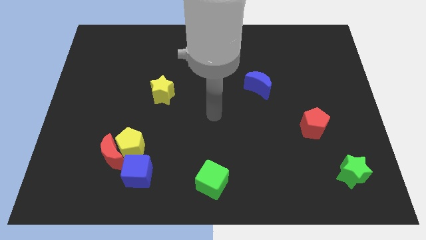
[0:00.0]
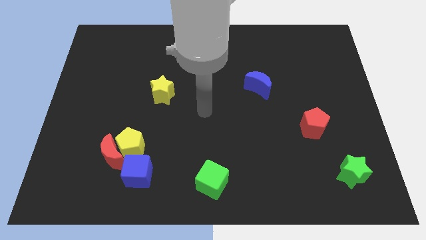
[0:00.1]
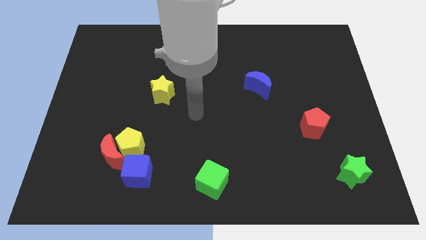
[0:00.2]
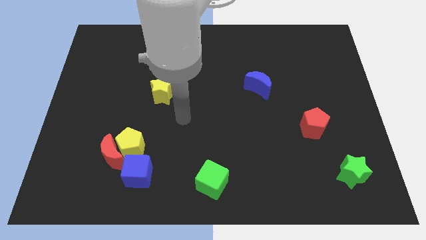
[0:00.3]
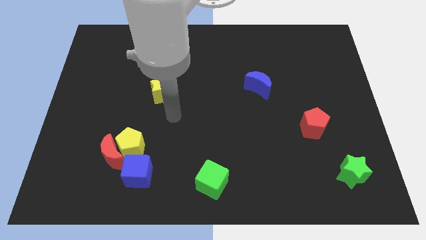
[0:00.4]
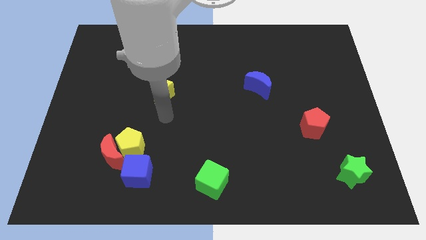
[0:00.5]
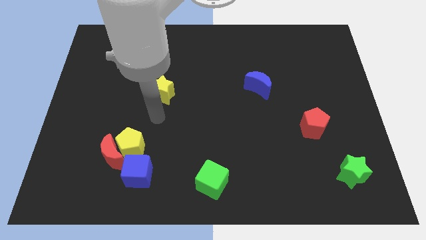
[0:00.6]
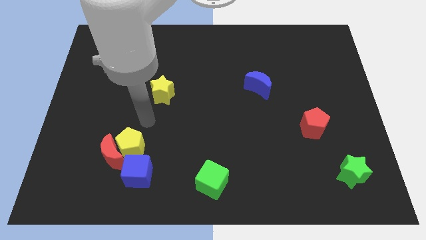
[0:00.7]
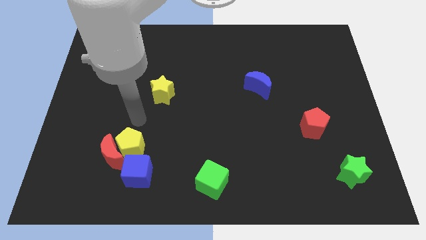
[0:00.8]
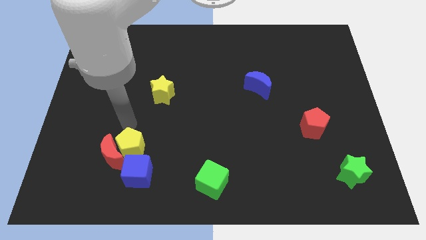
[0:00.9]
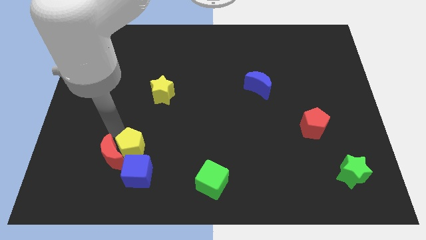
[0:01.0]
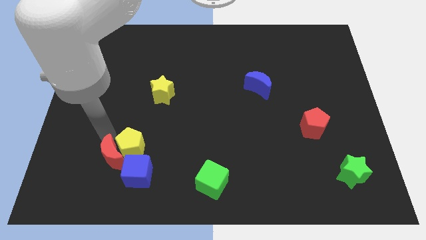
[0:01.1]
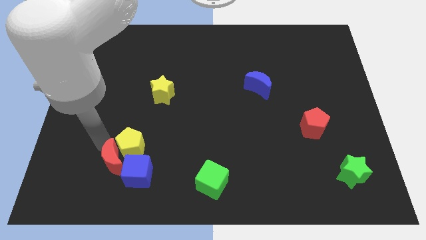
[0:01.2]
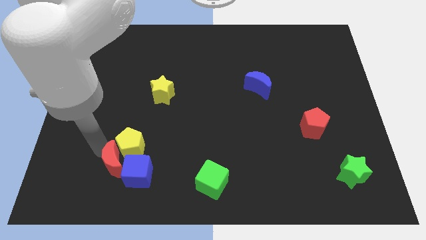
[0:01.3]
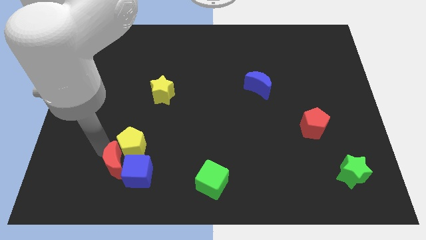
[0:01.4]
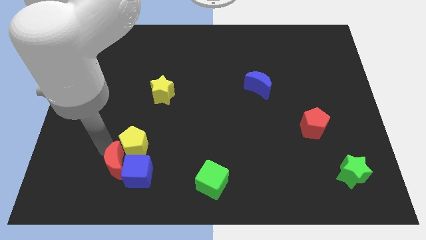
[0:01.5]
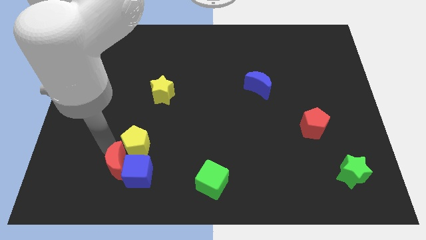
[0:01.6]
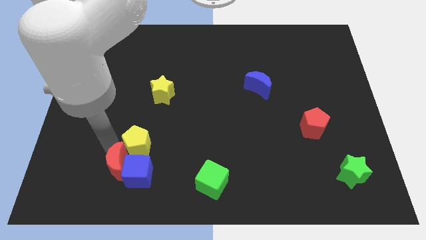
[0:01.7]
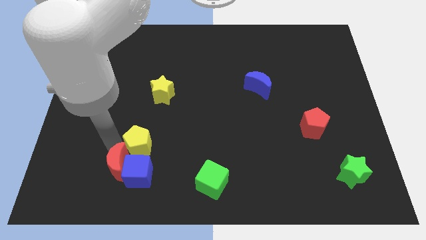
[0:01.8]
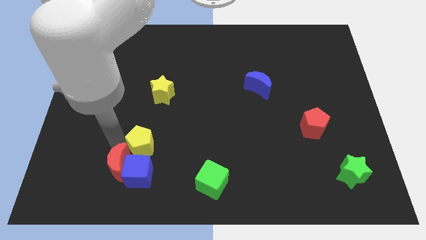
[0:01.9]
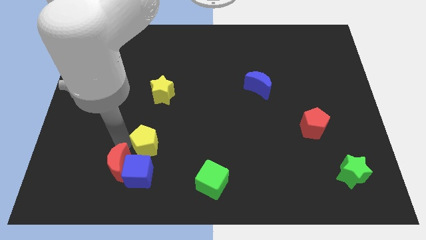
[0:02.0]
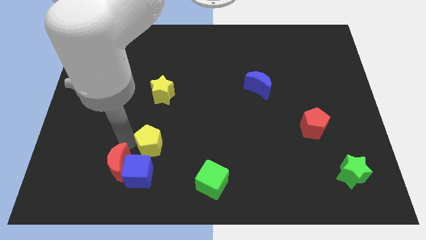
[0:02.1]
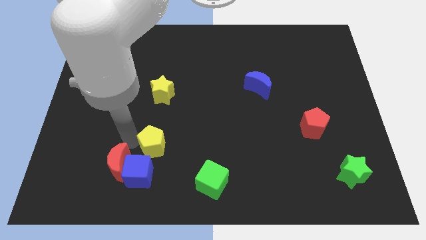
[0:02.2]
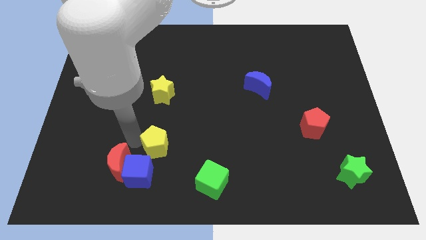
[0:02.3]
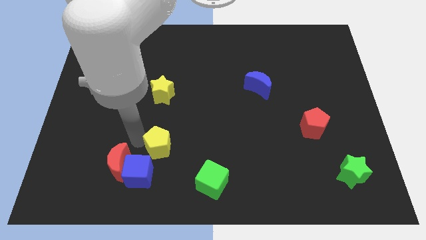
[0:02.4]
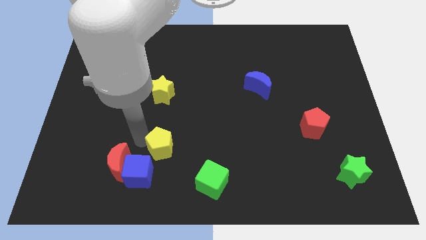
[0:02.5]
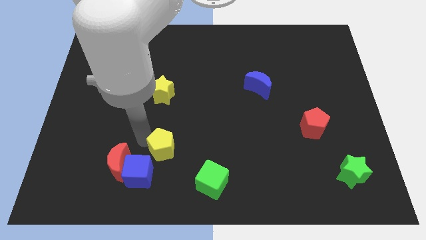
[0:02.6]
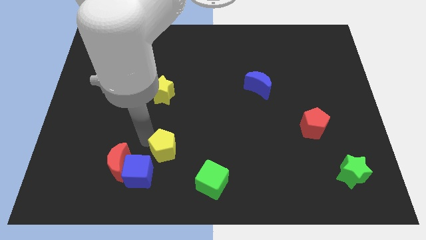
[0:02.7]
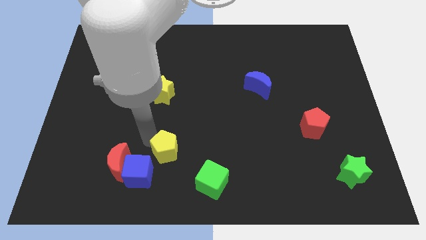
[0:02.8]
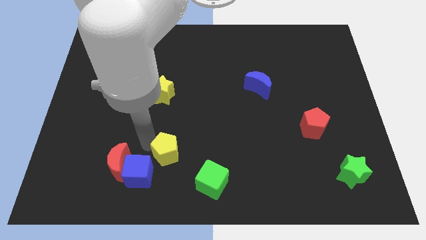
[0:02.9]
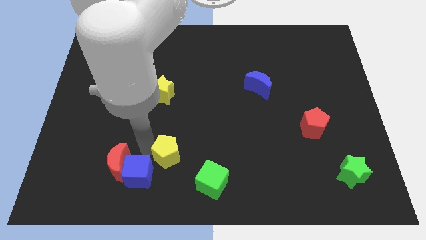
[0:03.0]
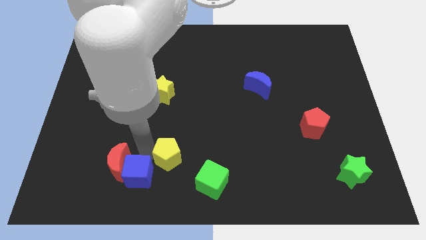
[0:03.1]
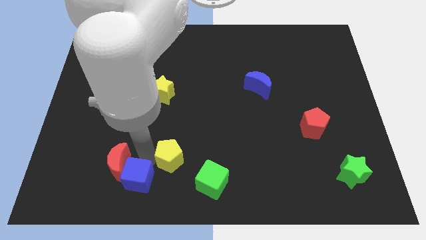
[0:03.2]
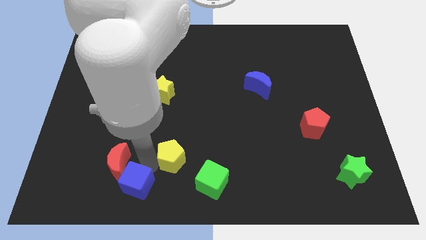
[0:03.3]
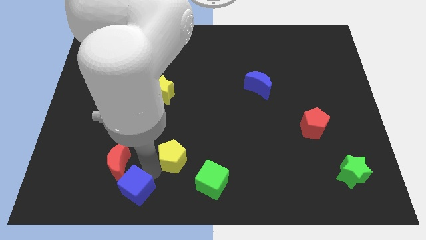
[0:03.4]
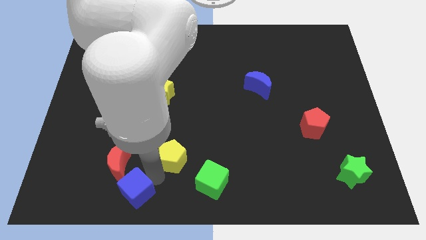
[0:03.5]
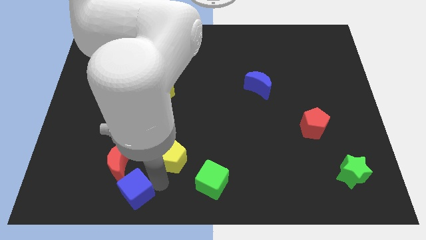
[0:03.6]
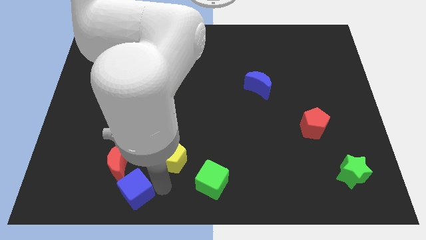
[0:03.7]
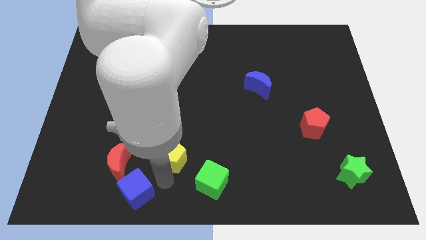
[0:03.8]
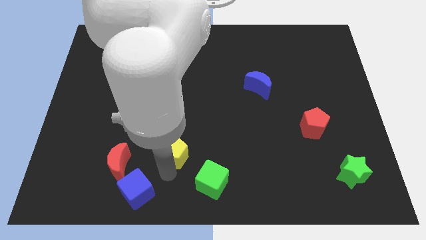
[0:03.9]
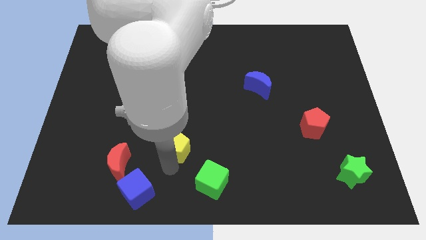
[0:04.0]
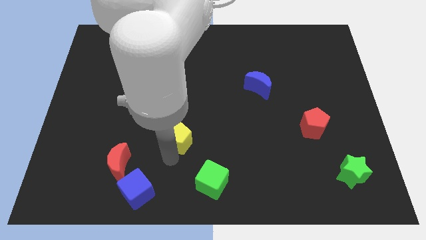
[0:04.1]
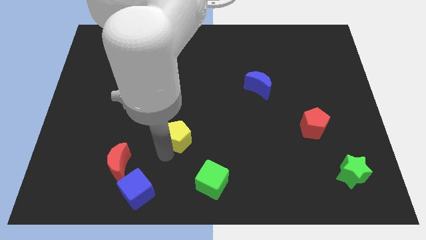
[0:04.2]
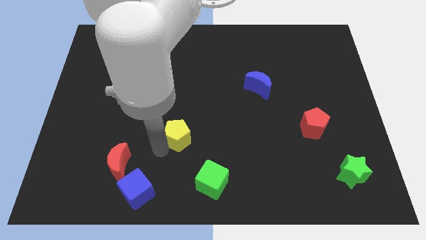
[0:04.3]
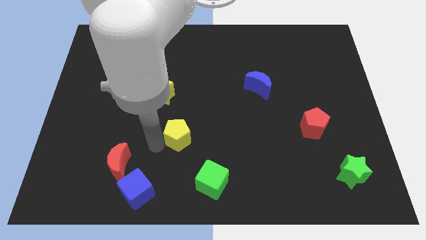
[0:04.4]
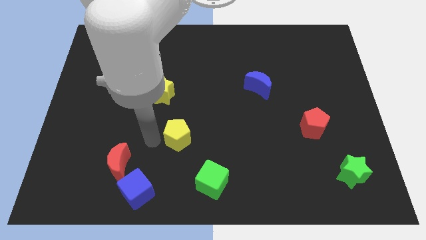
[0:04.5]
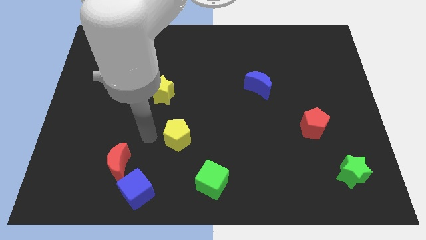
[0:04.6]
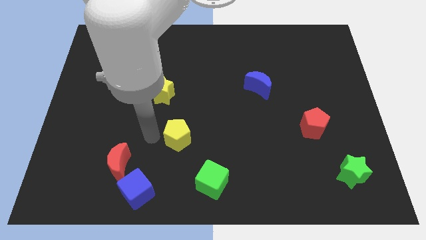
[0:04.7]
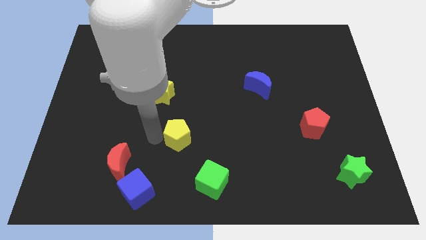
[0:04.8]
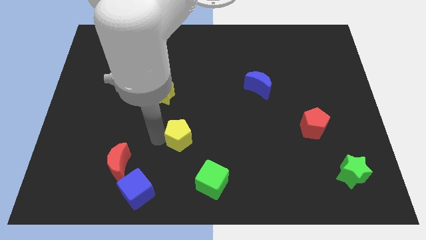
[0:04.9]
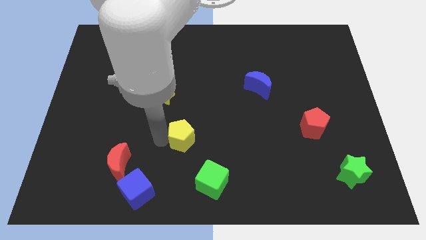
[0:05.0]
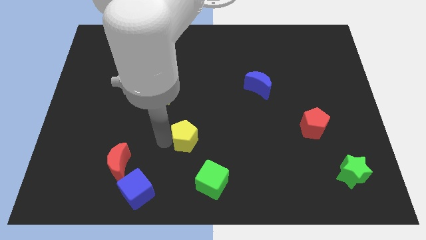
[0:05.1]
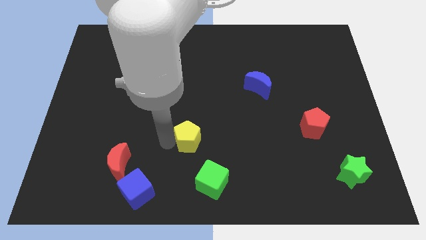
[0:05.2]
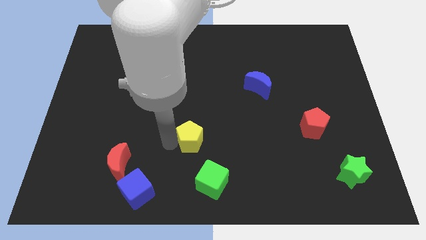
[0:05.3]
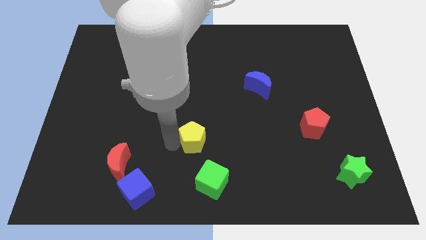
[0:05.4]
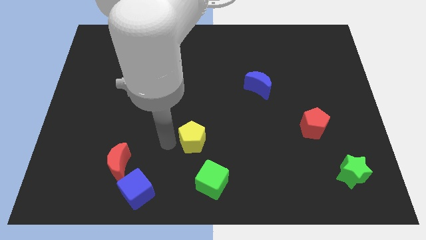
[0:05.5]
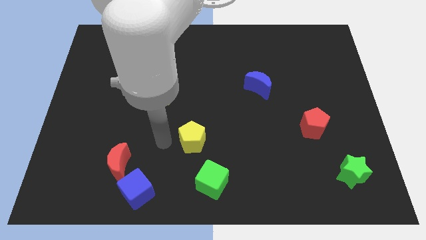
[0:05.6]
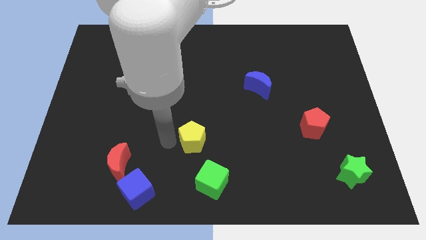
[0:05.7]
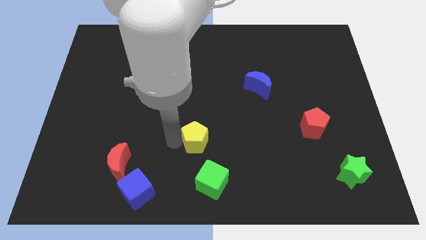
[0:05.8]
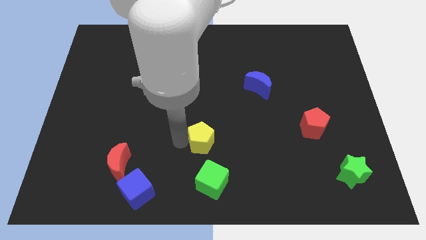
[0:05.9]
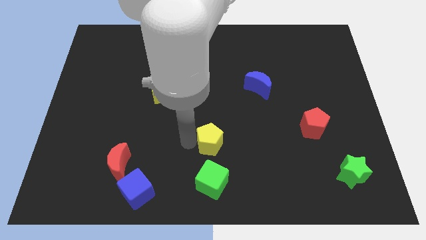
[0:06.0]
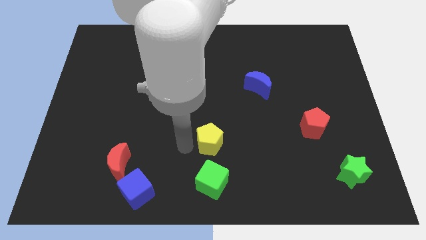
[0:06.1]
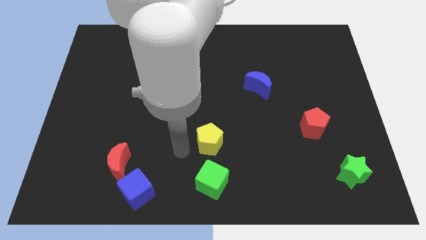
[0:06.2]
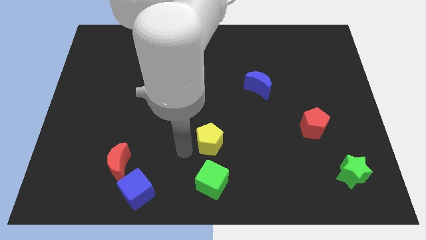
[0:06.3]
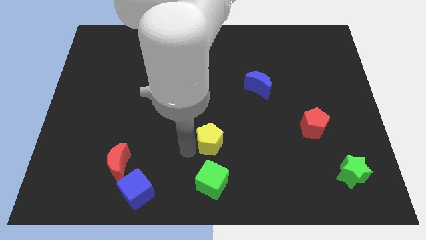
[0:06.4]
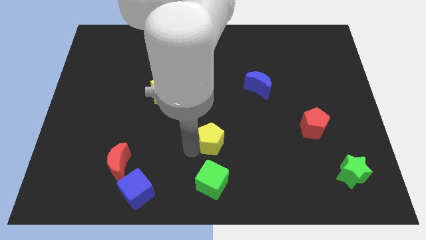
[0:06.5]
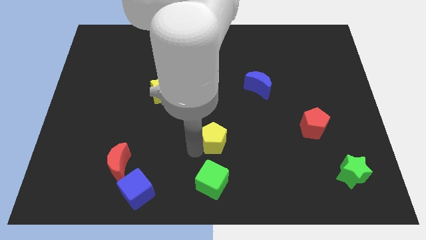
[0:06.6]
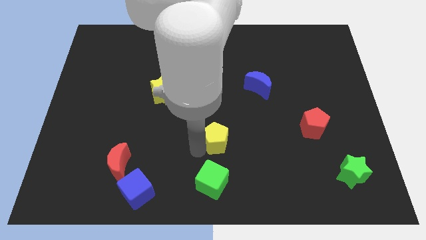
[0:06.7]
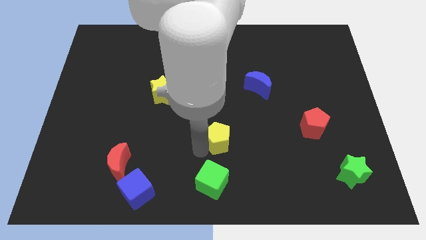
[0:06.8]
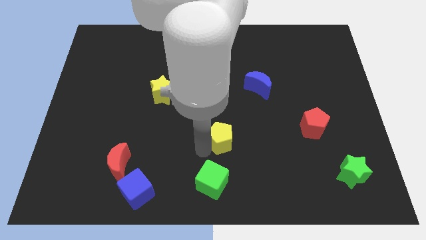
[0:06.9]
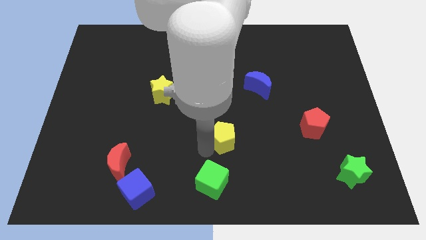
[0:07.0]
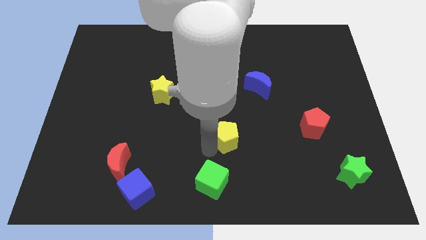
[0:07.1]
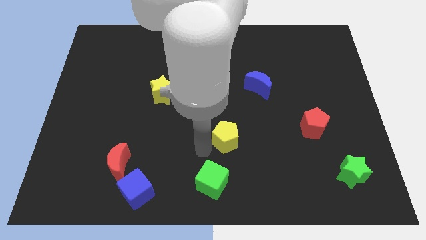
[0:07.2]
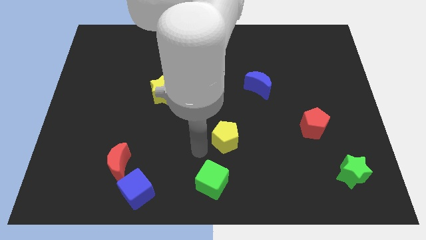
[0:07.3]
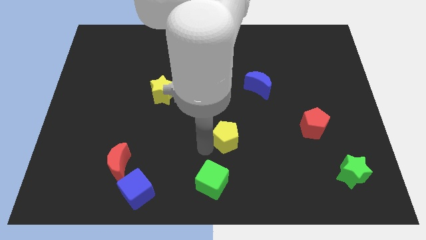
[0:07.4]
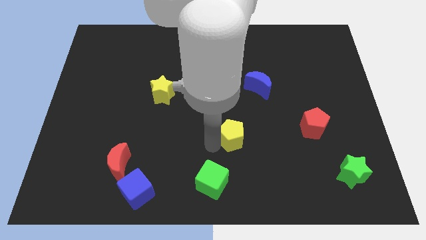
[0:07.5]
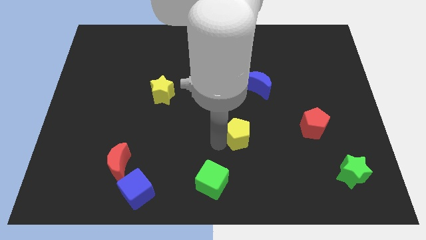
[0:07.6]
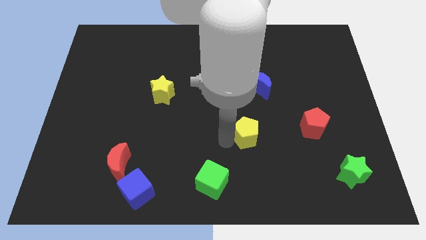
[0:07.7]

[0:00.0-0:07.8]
push the yellow pentagon just left of the red pentagon
